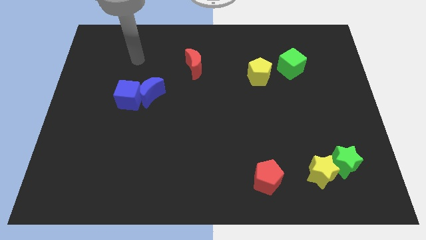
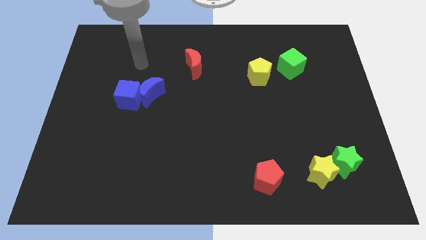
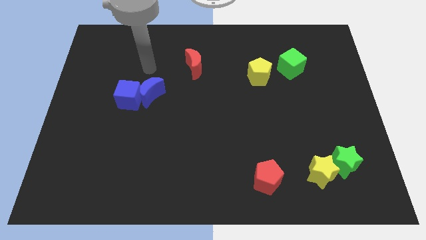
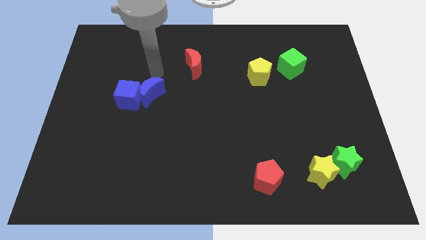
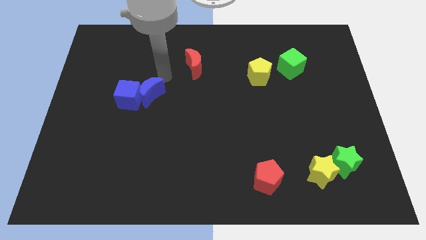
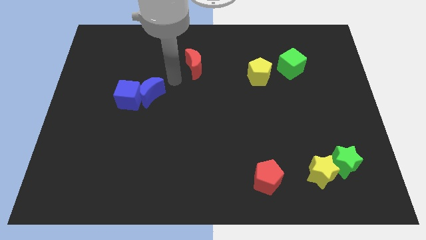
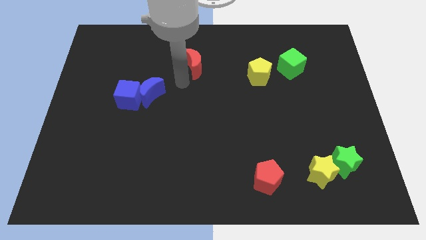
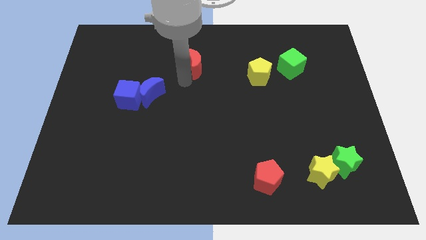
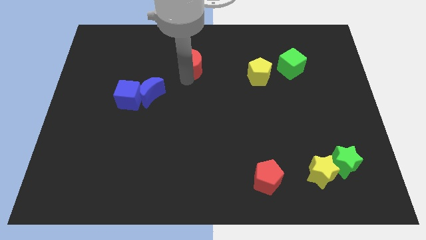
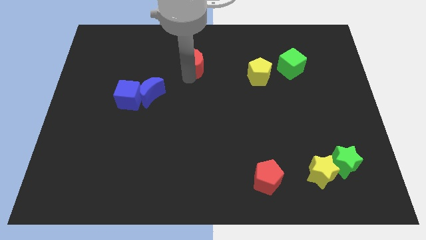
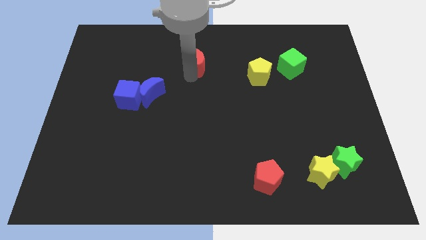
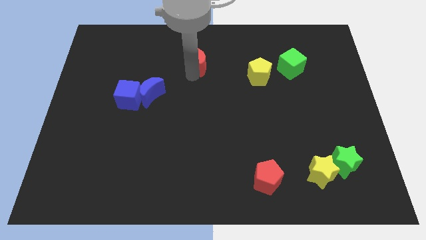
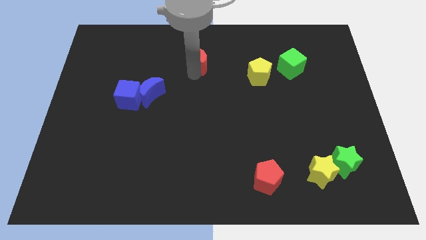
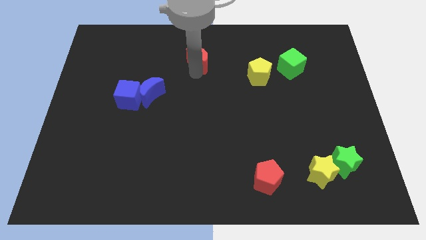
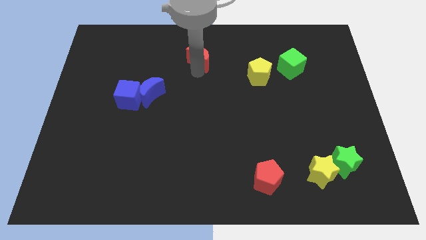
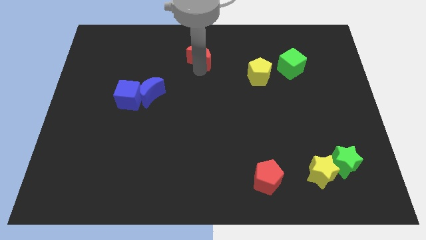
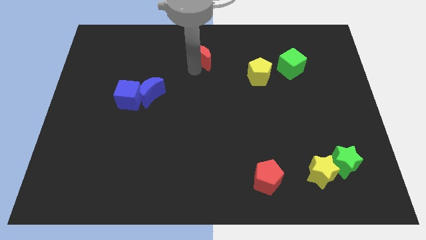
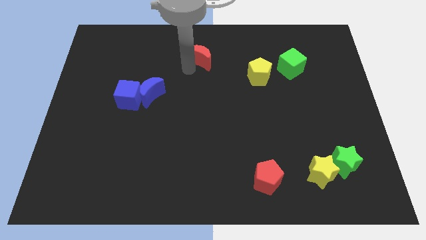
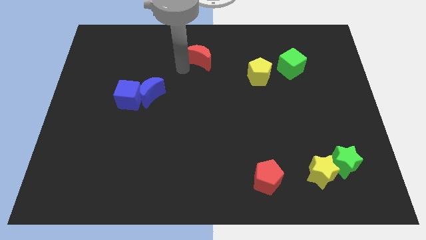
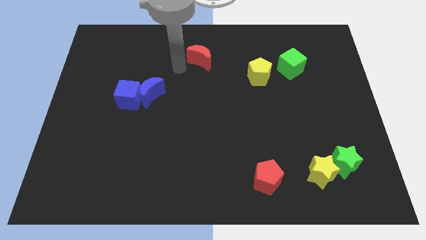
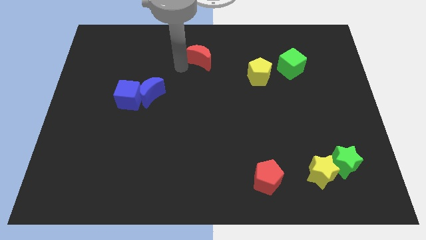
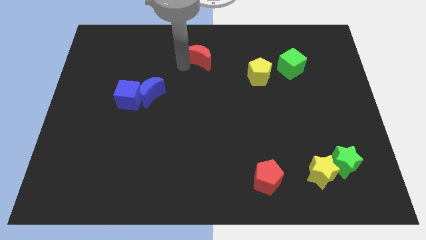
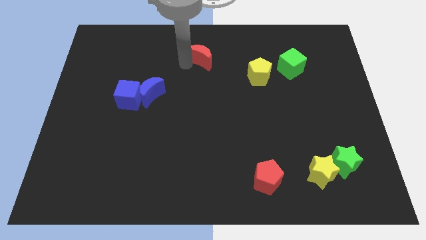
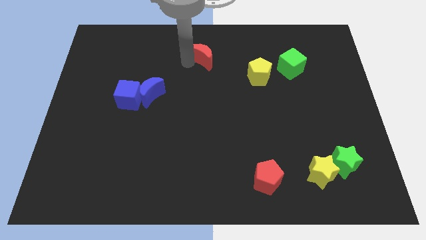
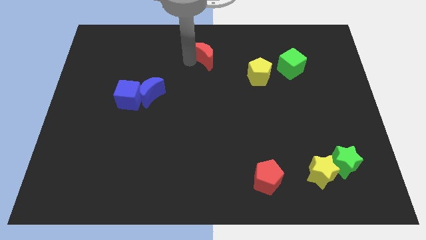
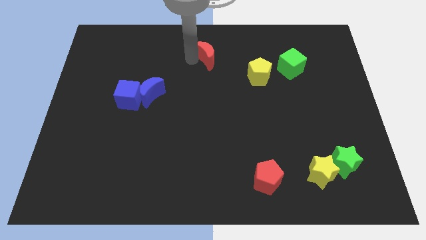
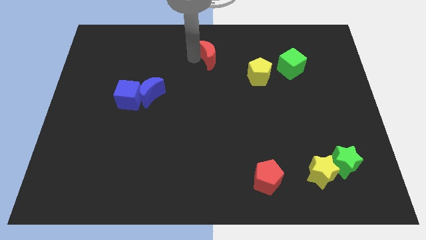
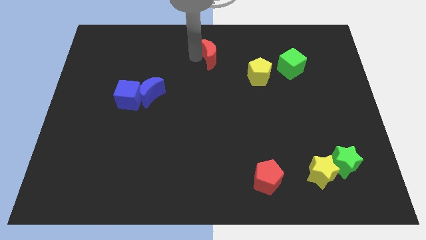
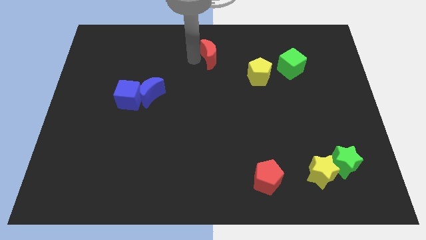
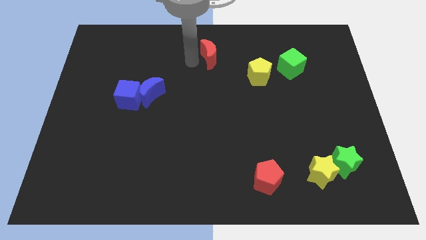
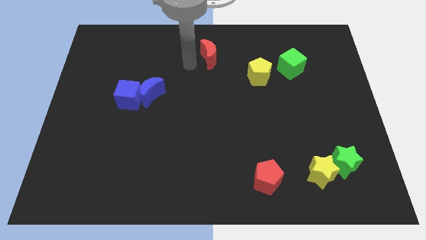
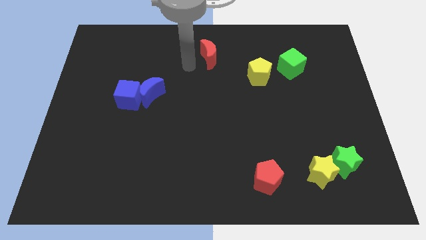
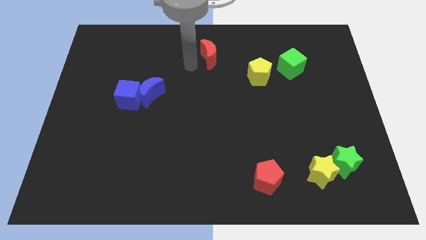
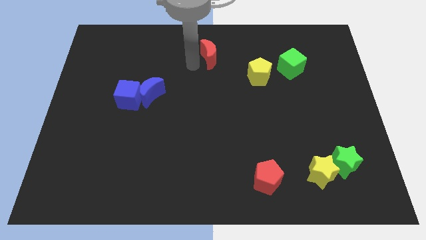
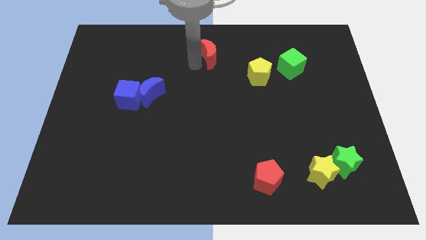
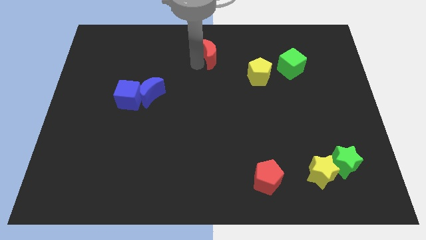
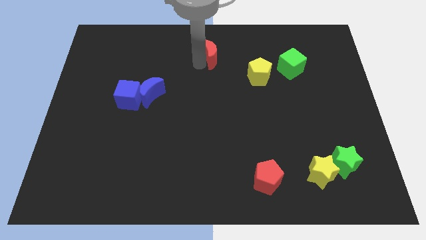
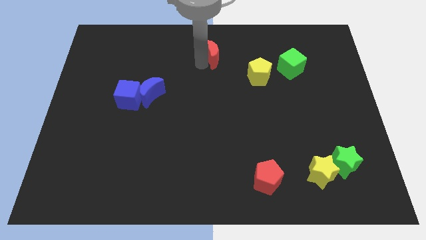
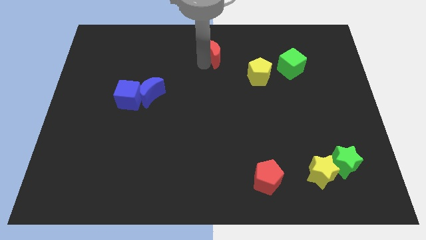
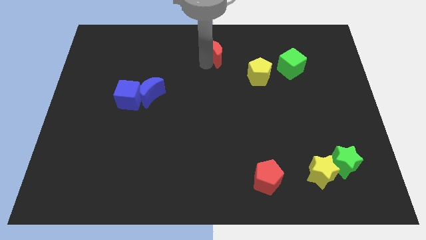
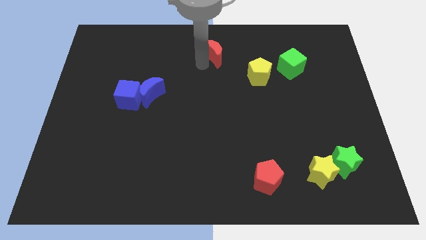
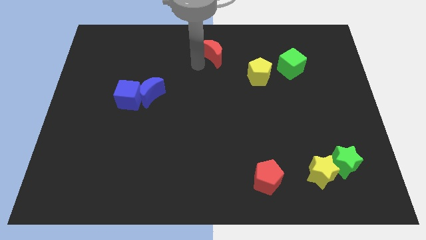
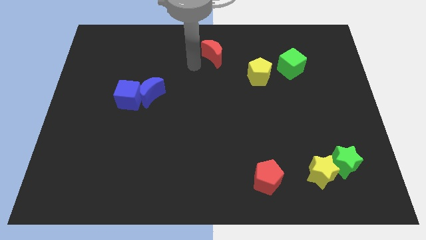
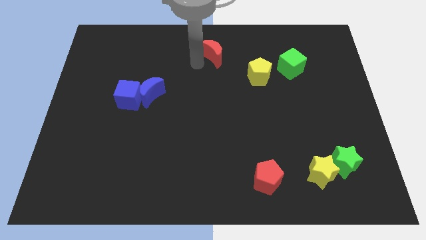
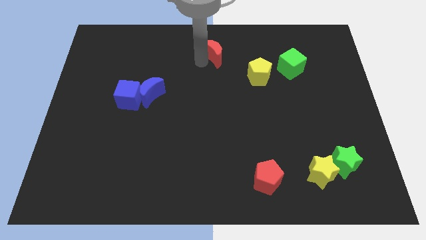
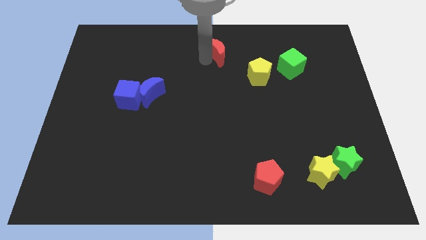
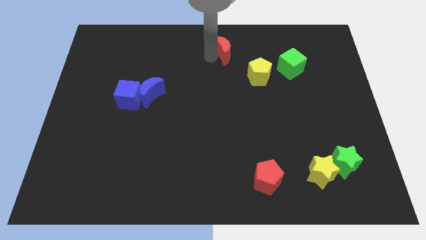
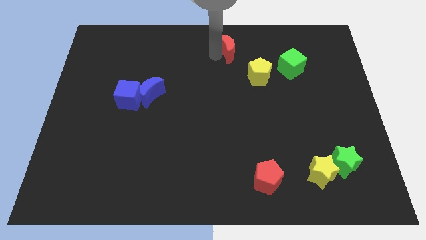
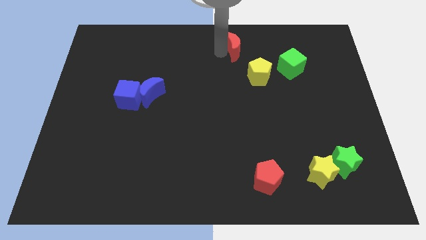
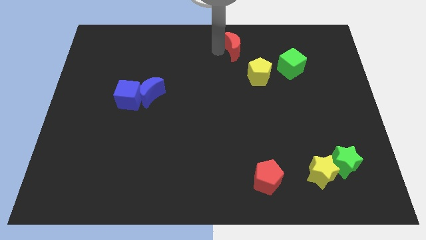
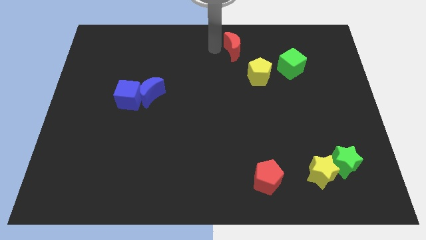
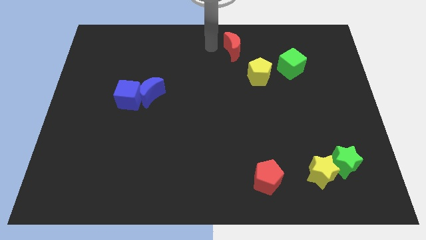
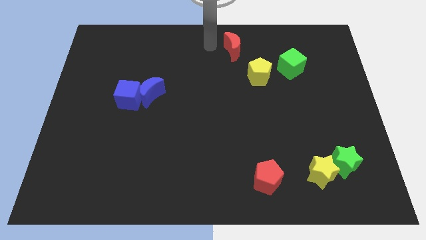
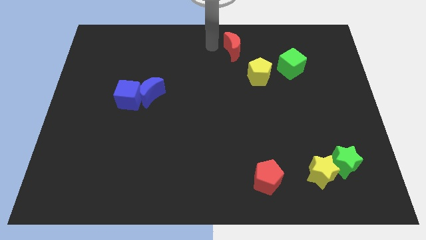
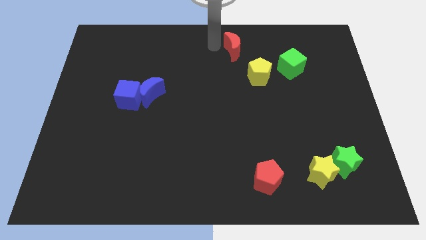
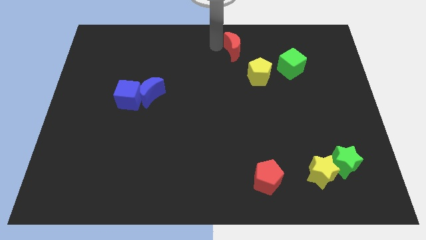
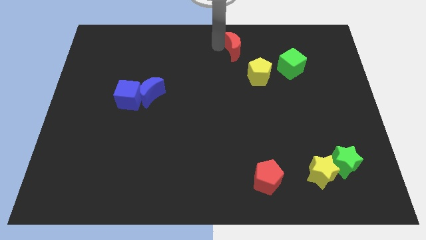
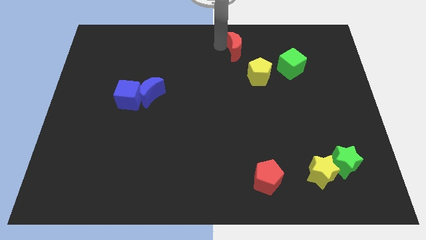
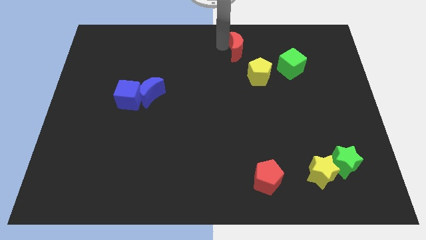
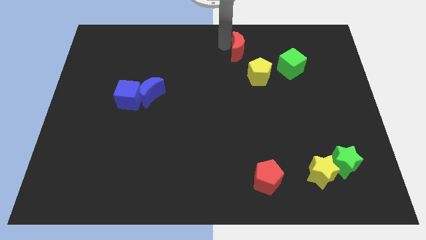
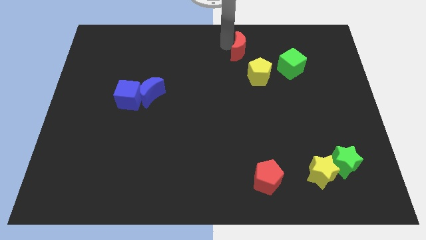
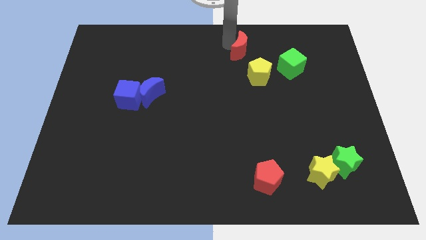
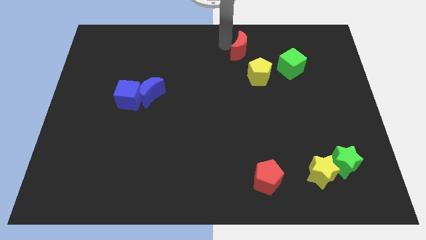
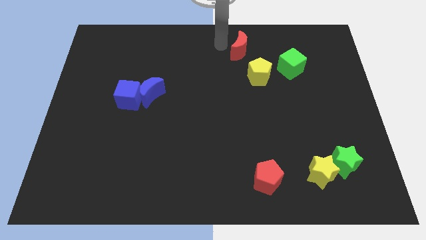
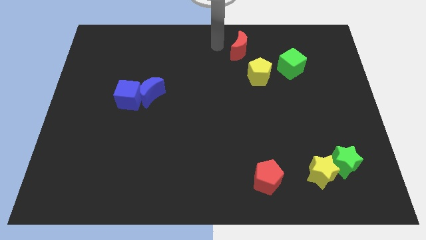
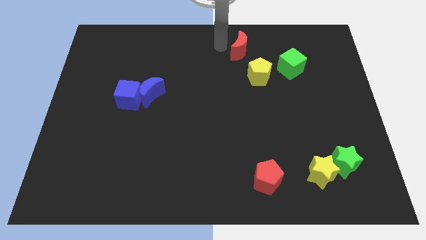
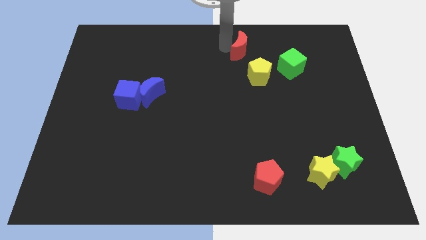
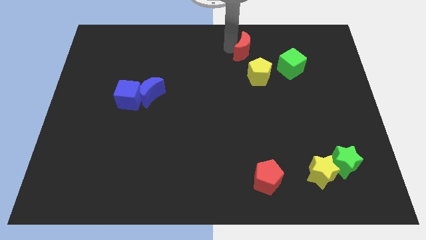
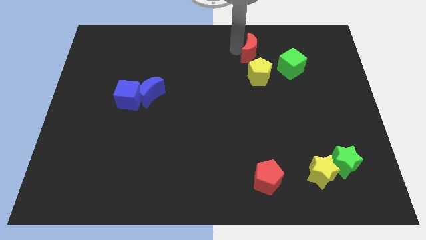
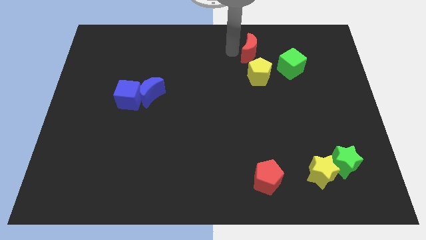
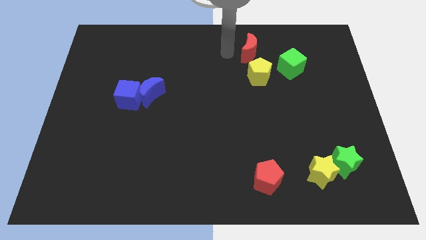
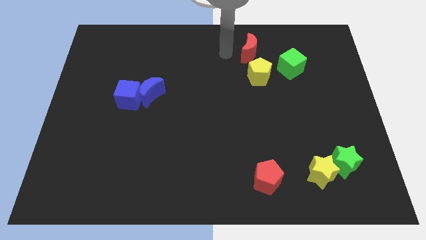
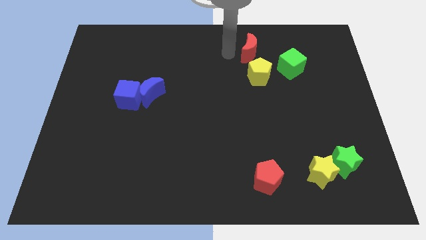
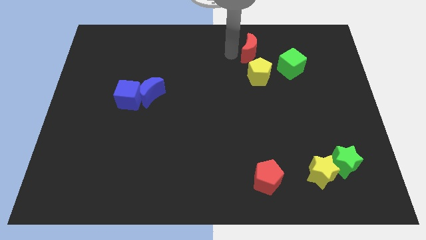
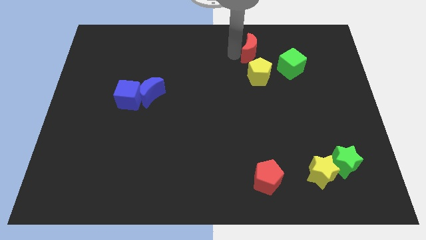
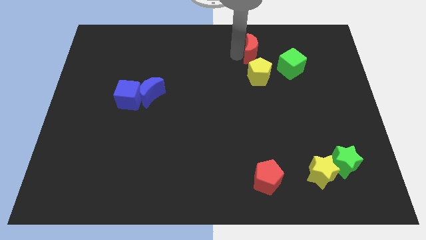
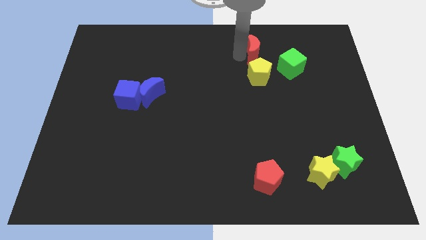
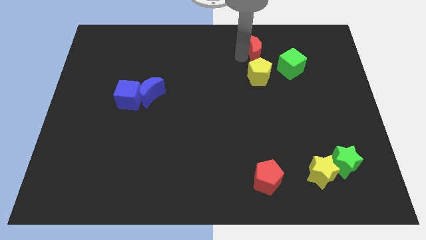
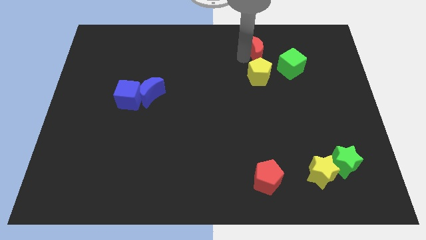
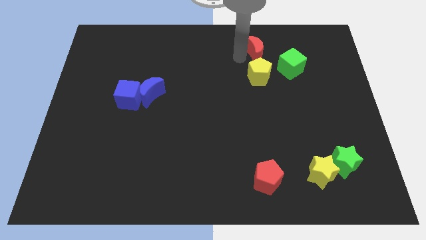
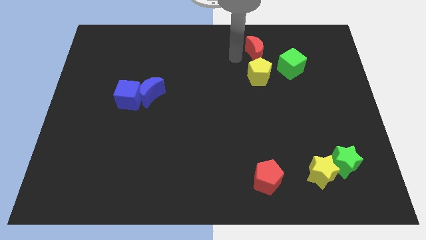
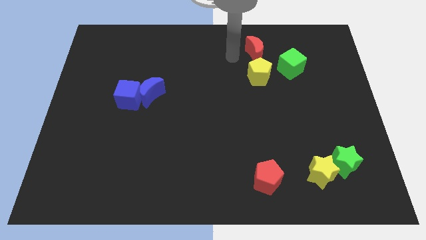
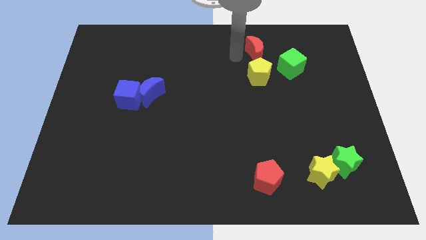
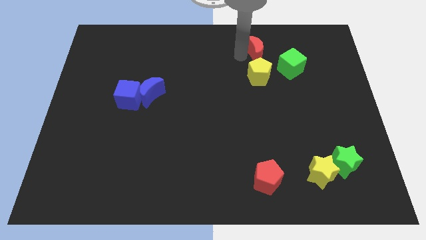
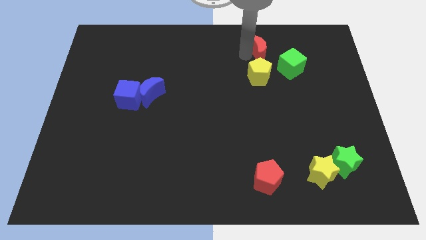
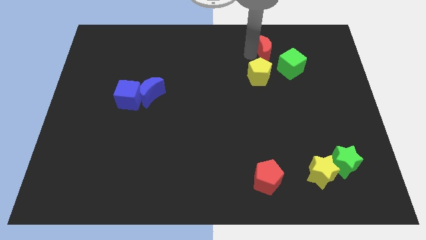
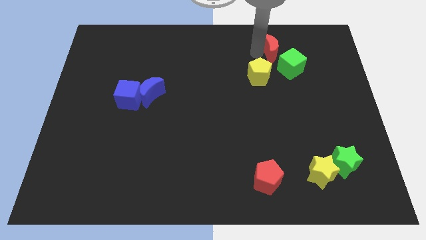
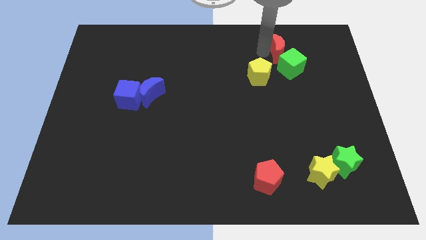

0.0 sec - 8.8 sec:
slide the red moon right
